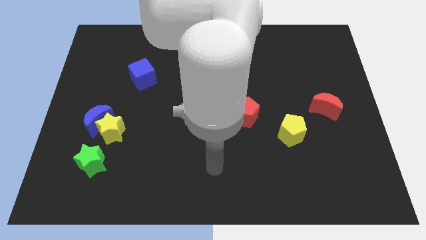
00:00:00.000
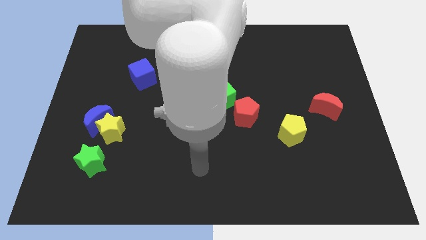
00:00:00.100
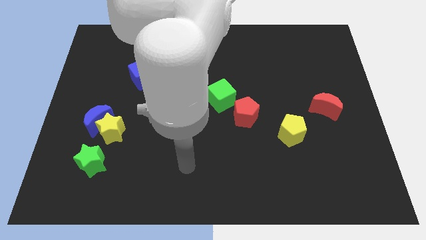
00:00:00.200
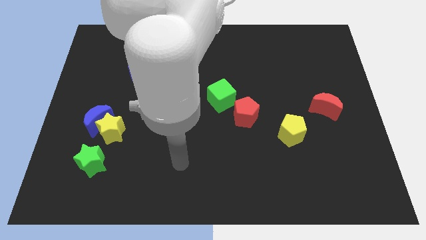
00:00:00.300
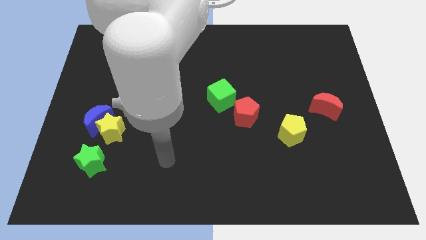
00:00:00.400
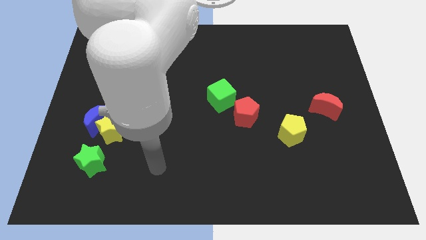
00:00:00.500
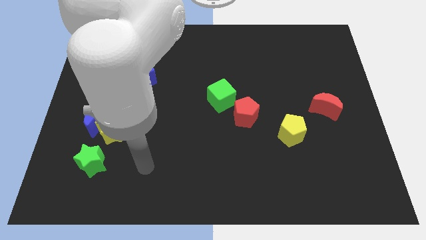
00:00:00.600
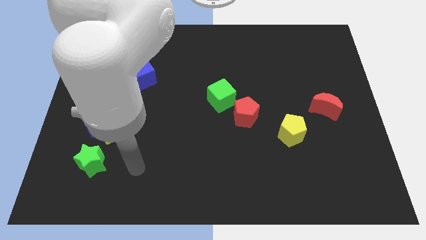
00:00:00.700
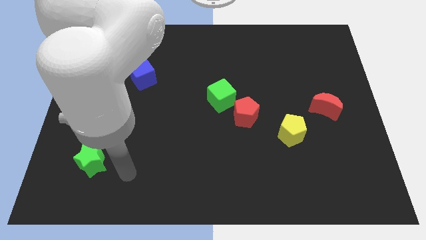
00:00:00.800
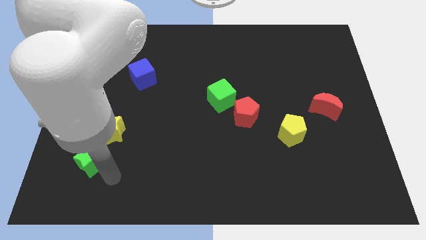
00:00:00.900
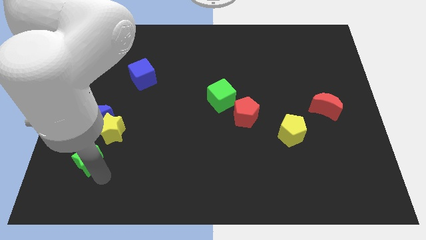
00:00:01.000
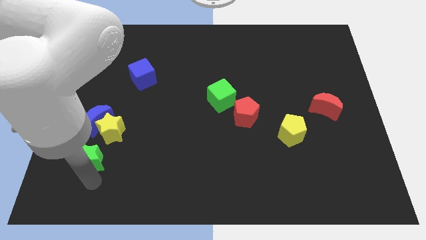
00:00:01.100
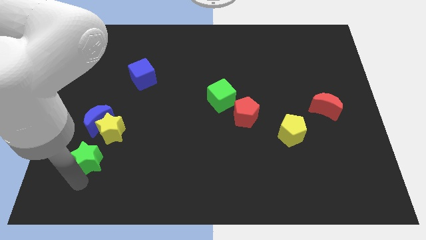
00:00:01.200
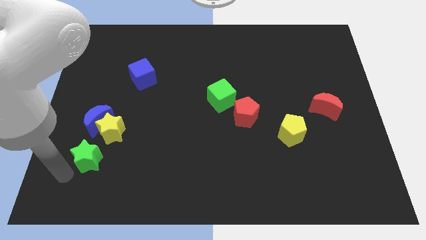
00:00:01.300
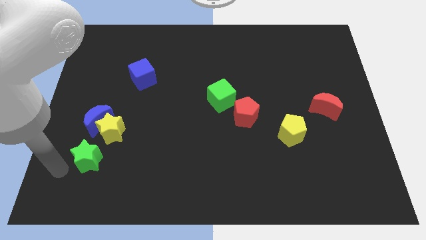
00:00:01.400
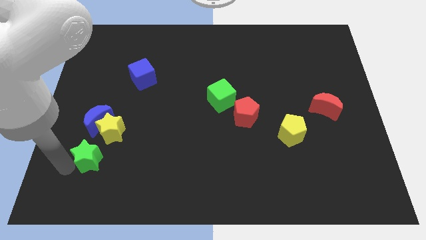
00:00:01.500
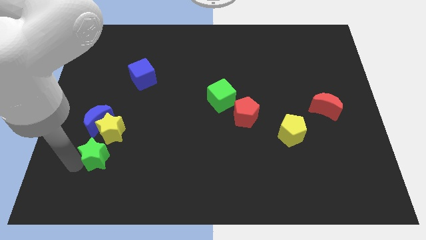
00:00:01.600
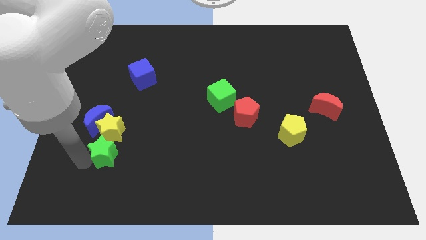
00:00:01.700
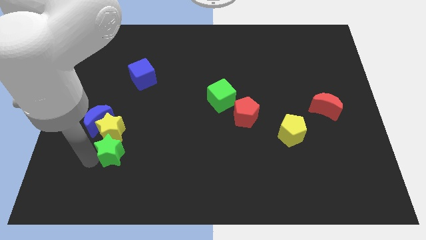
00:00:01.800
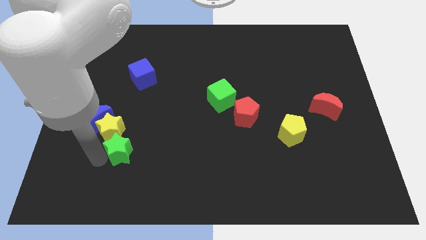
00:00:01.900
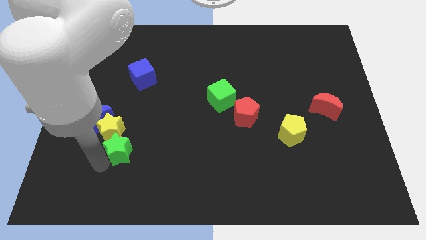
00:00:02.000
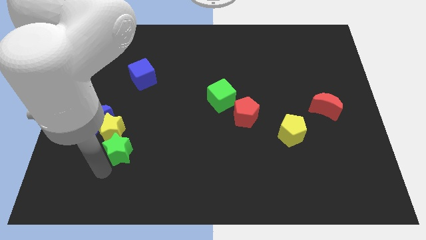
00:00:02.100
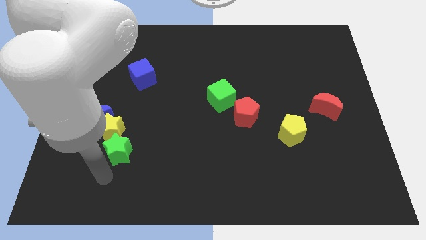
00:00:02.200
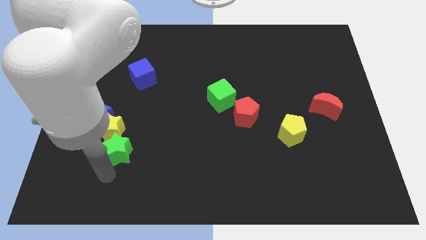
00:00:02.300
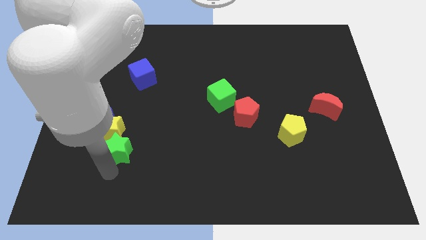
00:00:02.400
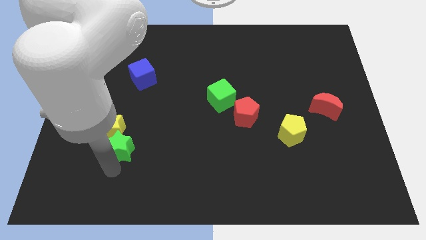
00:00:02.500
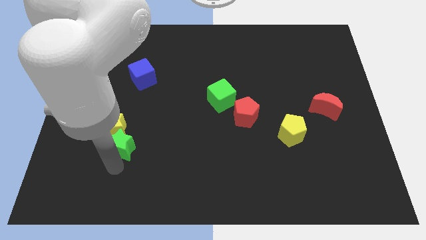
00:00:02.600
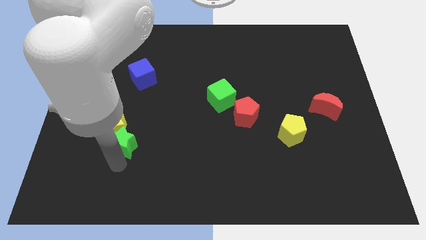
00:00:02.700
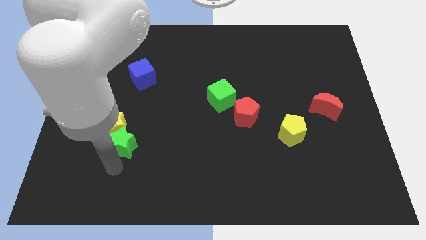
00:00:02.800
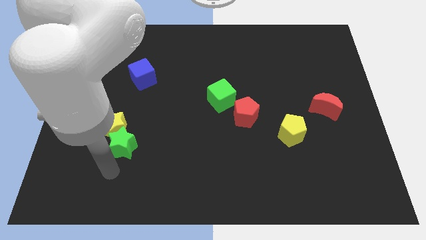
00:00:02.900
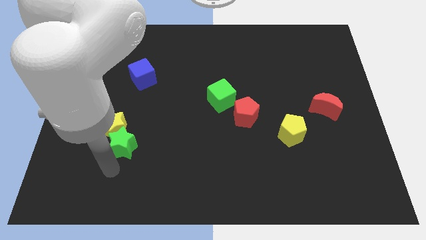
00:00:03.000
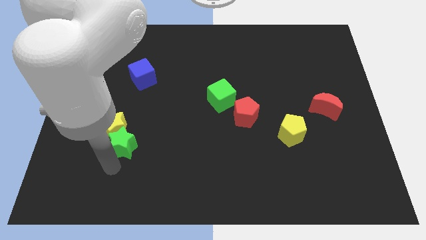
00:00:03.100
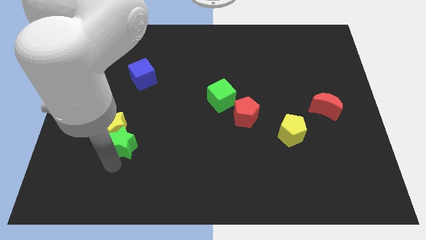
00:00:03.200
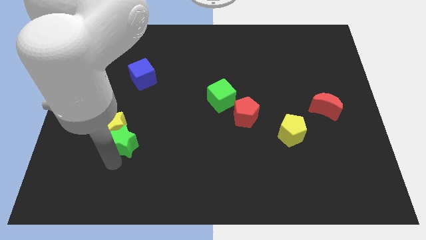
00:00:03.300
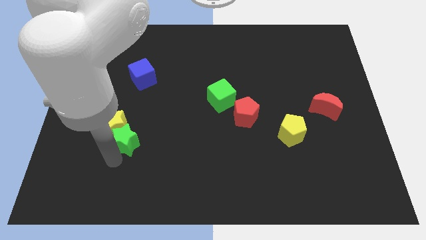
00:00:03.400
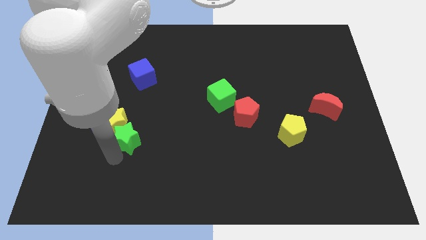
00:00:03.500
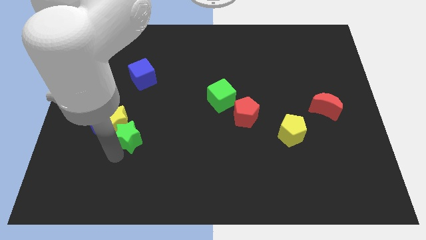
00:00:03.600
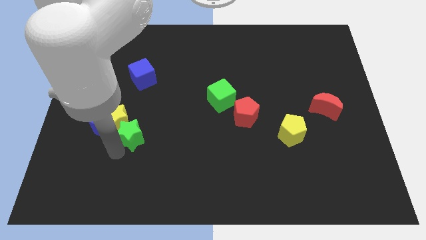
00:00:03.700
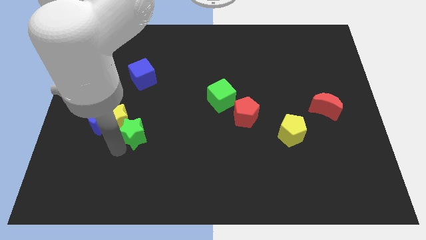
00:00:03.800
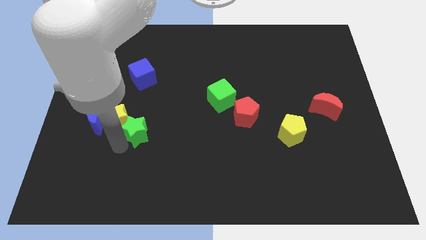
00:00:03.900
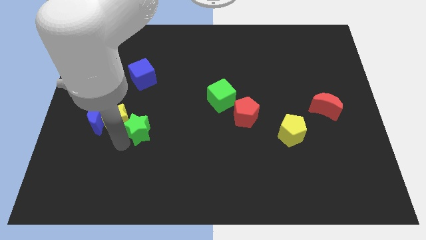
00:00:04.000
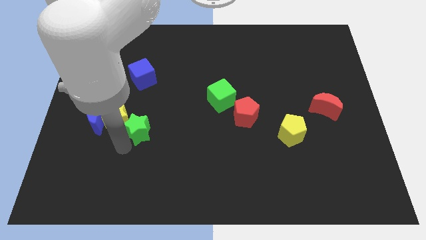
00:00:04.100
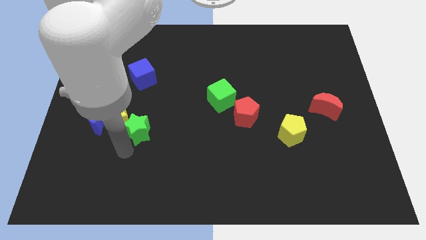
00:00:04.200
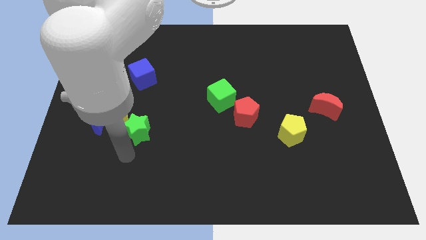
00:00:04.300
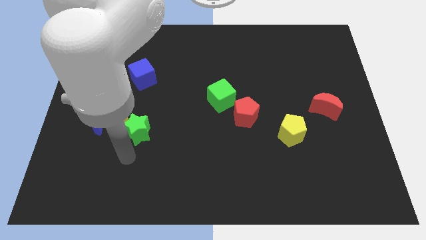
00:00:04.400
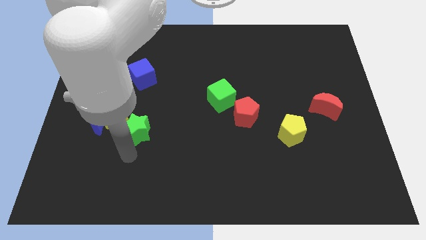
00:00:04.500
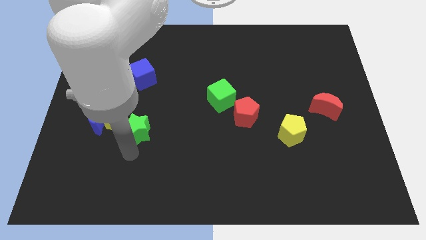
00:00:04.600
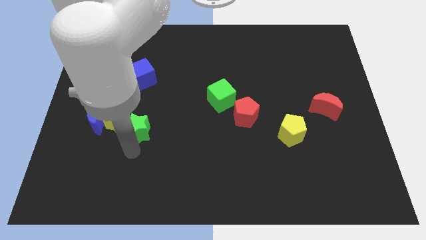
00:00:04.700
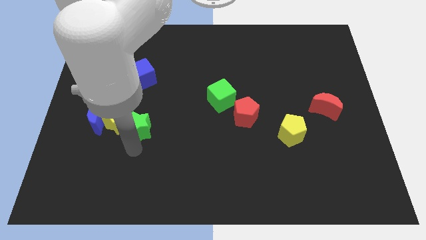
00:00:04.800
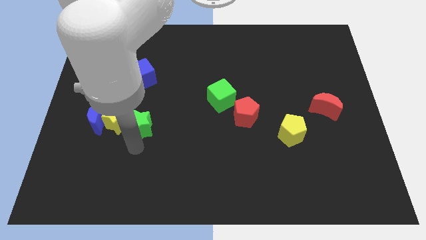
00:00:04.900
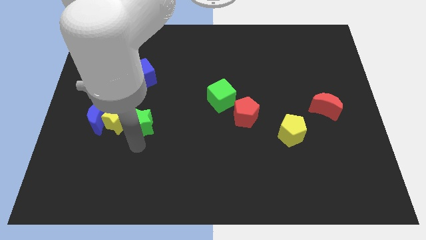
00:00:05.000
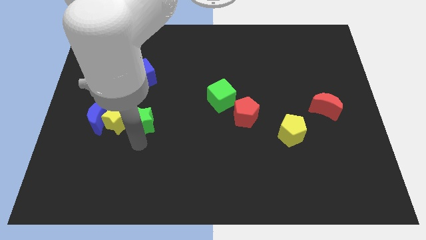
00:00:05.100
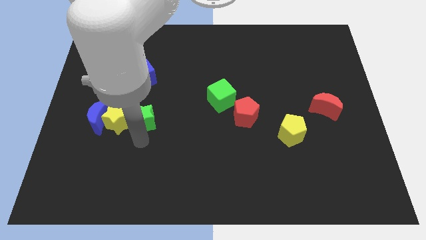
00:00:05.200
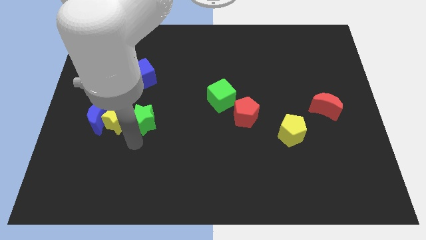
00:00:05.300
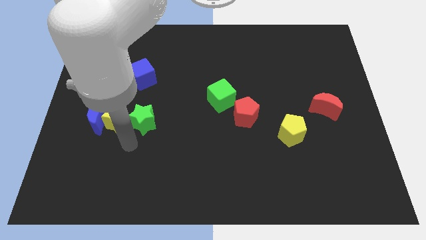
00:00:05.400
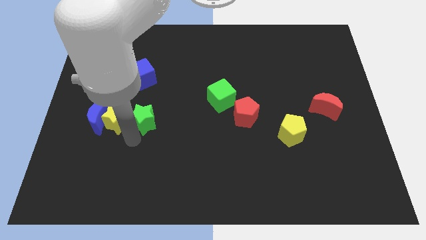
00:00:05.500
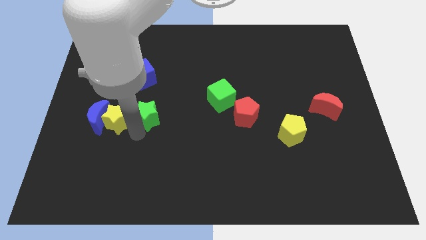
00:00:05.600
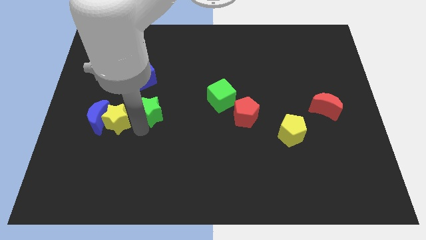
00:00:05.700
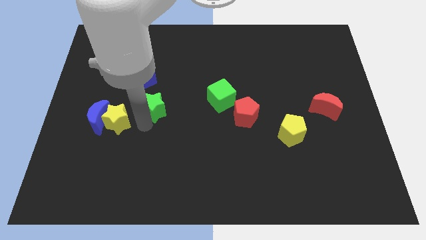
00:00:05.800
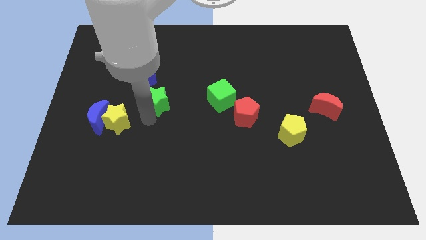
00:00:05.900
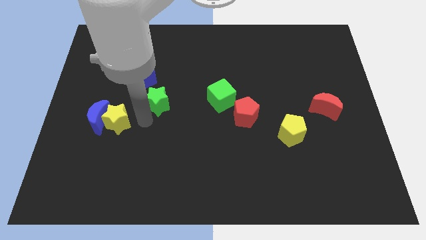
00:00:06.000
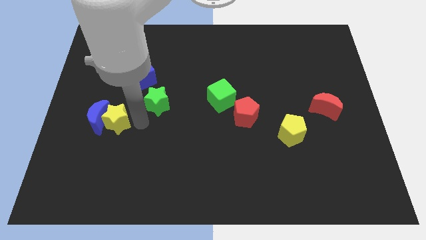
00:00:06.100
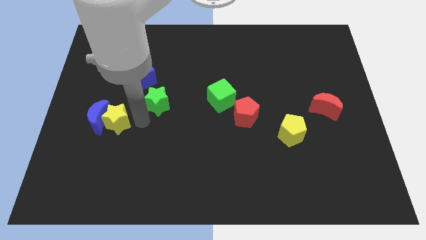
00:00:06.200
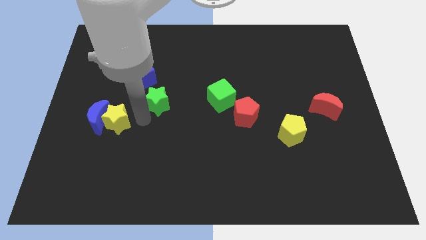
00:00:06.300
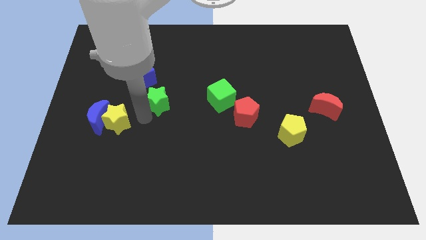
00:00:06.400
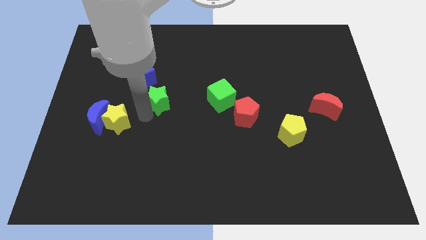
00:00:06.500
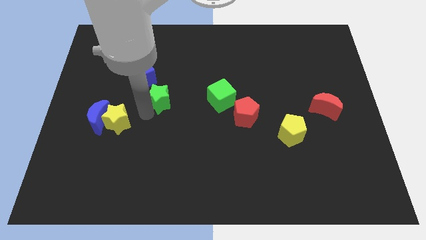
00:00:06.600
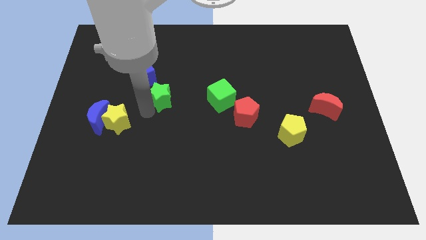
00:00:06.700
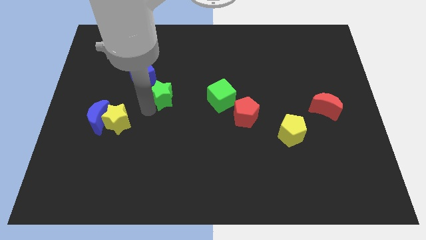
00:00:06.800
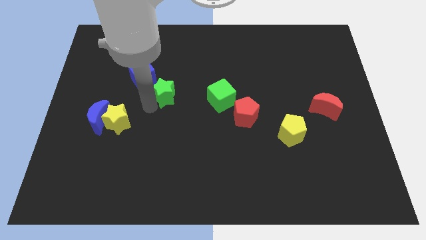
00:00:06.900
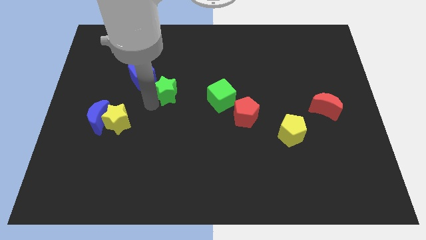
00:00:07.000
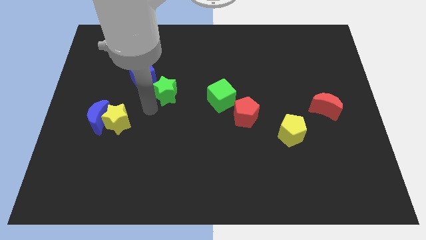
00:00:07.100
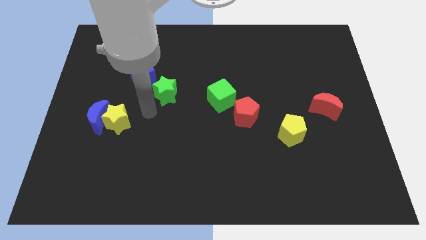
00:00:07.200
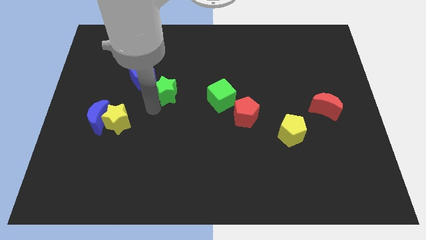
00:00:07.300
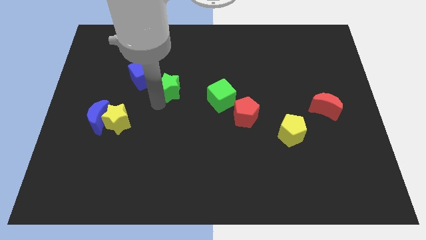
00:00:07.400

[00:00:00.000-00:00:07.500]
slide the green star to the right of the blue cube
